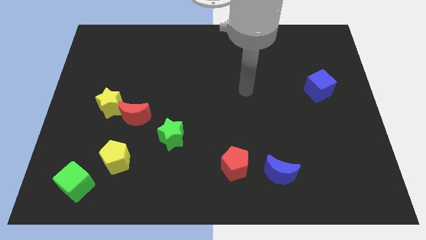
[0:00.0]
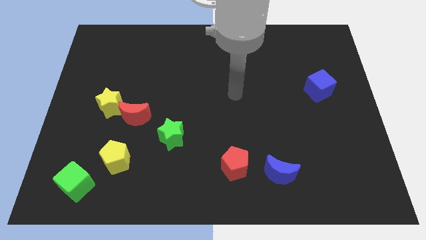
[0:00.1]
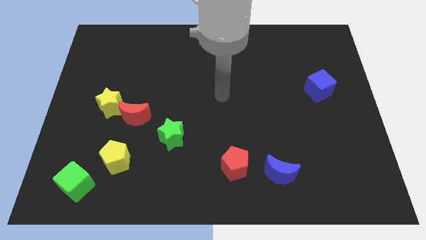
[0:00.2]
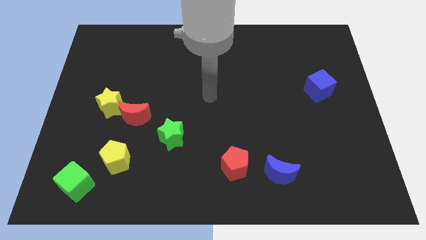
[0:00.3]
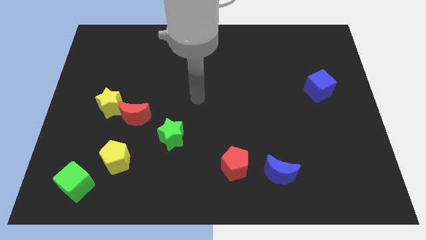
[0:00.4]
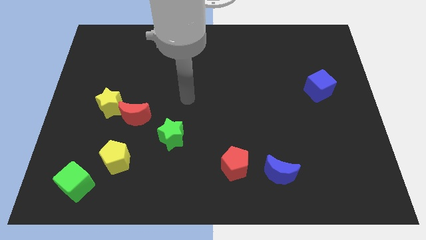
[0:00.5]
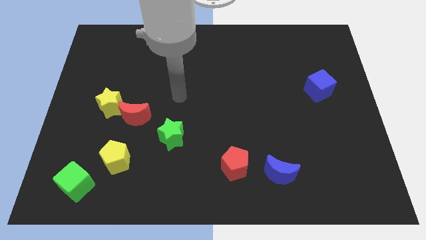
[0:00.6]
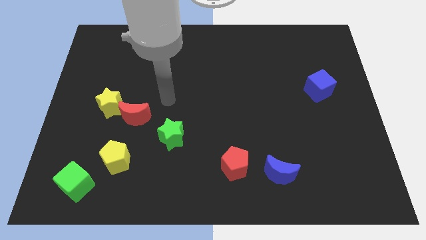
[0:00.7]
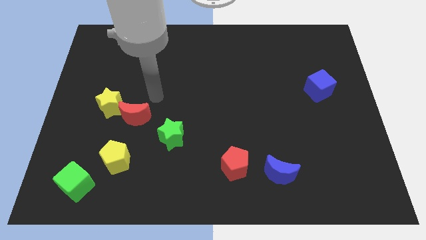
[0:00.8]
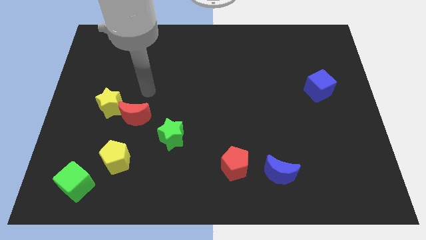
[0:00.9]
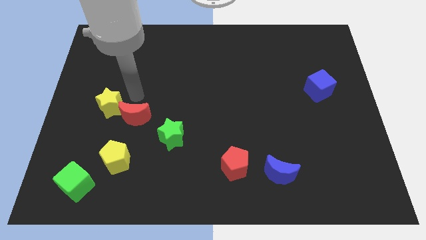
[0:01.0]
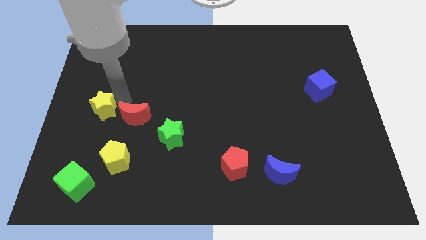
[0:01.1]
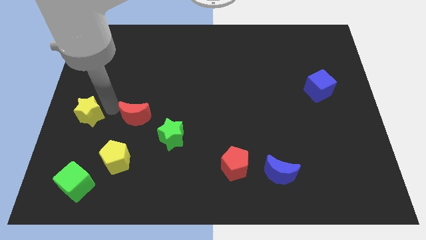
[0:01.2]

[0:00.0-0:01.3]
separate the red moon from the yellow star

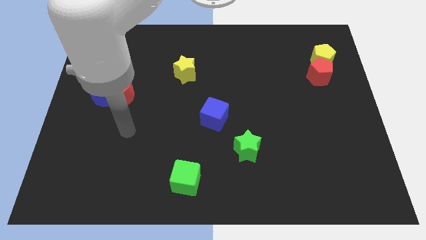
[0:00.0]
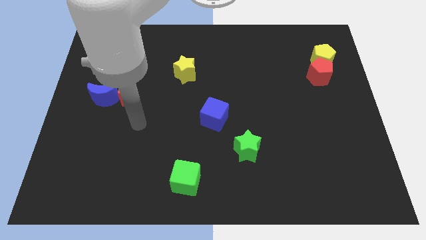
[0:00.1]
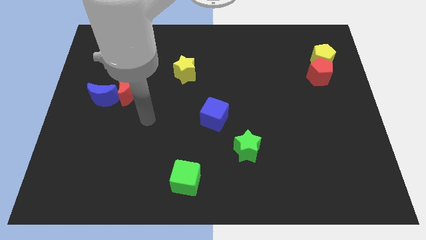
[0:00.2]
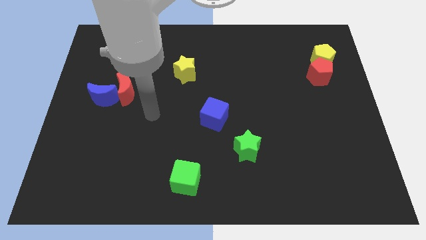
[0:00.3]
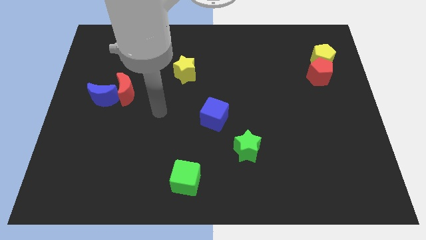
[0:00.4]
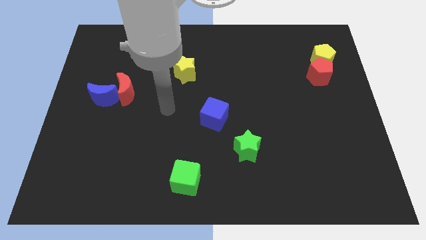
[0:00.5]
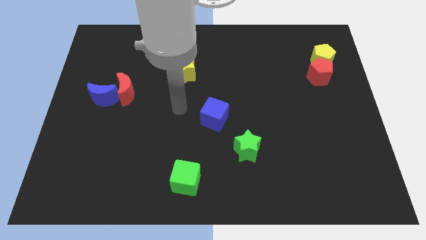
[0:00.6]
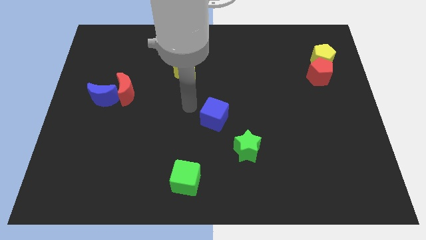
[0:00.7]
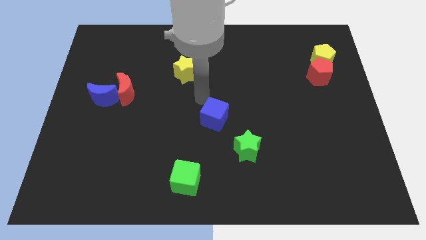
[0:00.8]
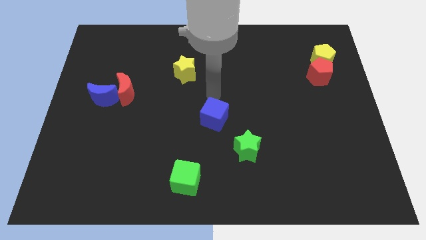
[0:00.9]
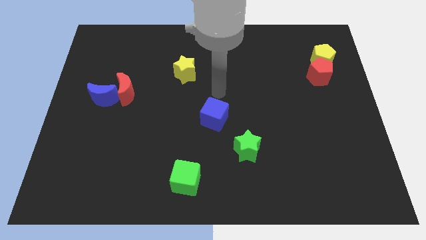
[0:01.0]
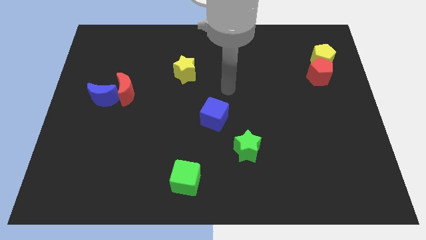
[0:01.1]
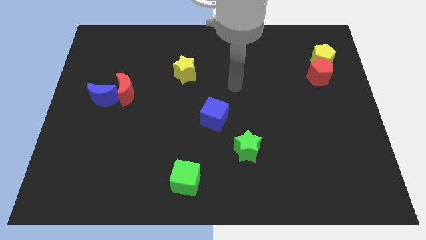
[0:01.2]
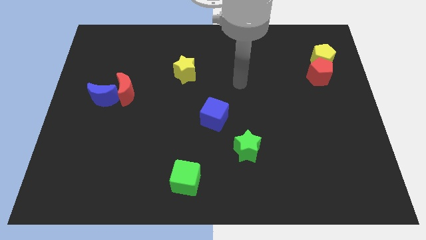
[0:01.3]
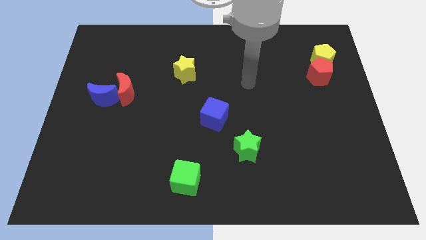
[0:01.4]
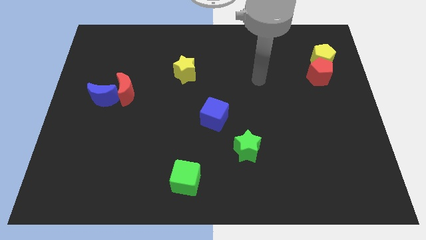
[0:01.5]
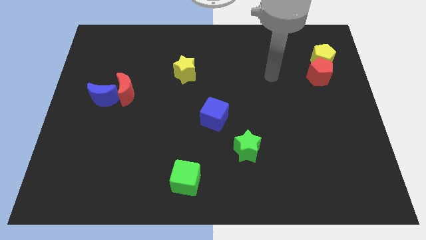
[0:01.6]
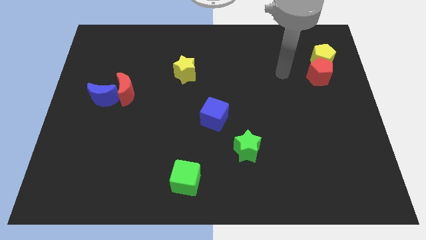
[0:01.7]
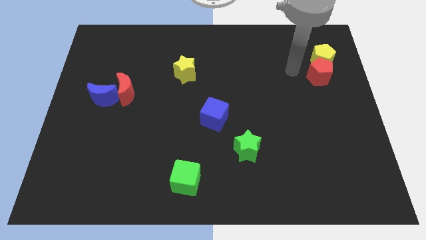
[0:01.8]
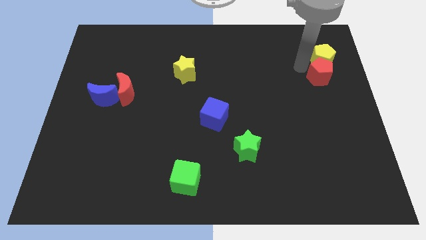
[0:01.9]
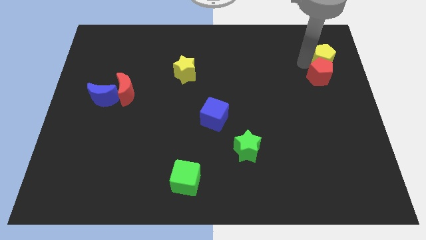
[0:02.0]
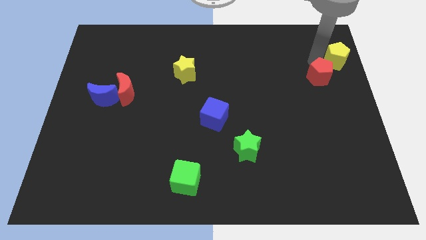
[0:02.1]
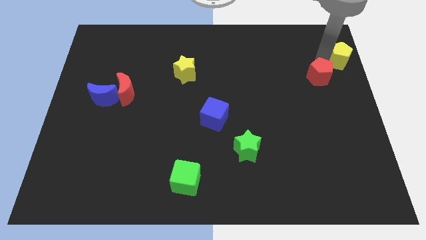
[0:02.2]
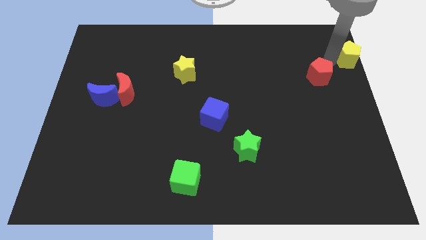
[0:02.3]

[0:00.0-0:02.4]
separate the red pentagon from the yellow pentagon

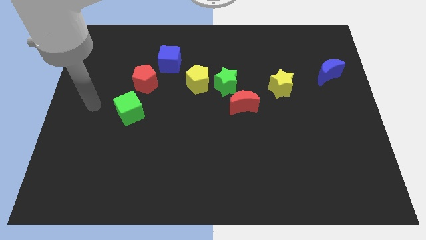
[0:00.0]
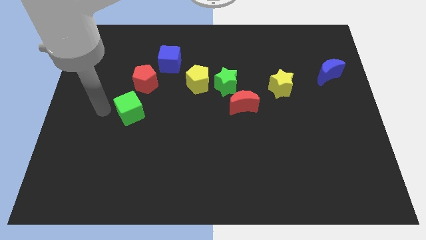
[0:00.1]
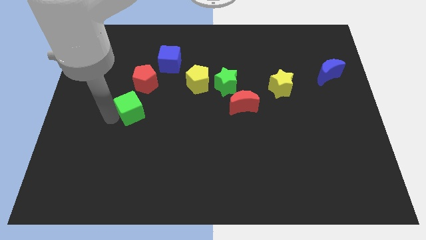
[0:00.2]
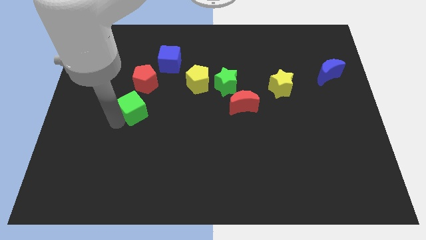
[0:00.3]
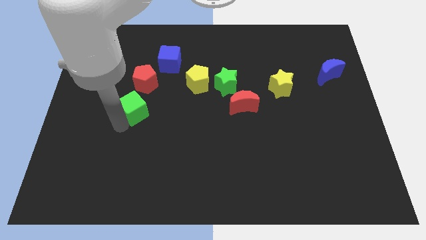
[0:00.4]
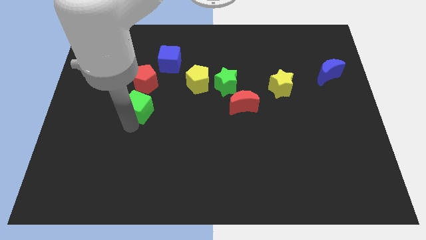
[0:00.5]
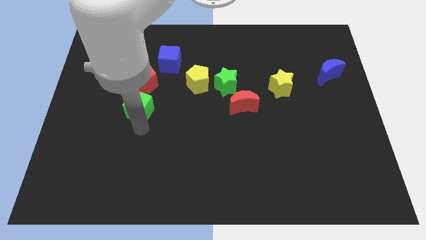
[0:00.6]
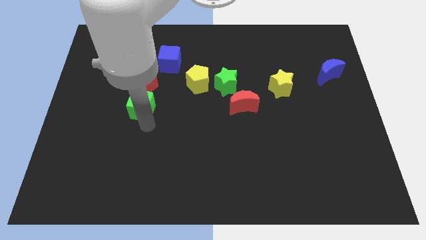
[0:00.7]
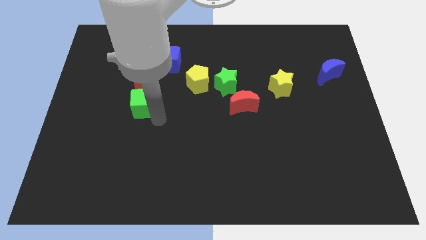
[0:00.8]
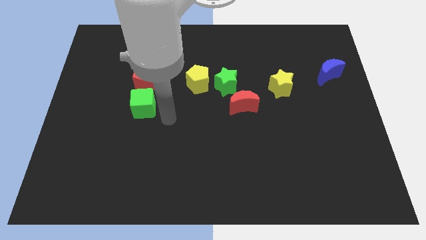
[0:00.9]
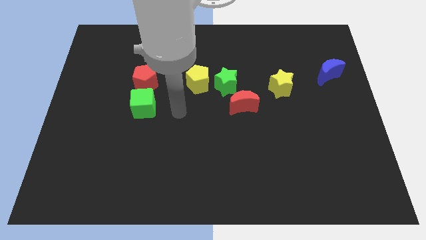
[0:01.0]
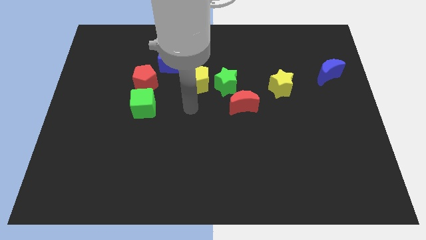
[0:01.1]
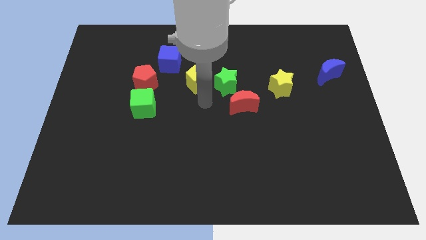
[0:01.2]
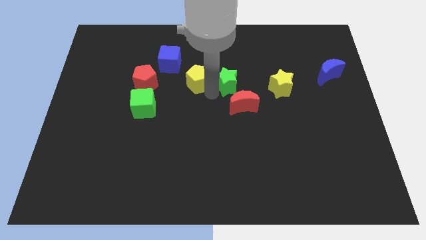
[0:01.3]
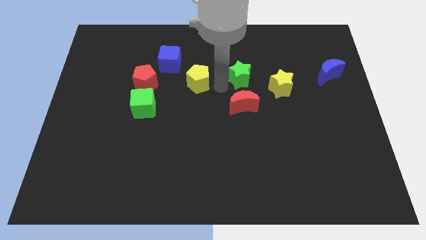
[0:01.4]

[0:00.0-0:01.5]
pull the yellow pentagon apart from the green star

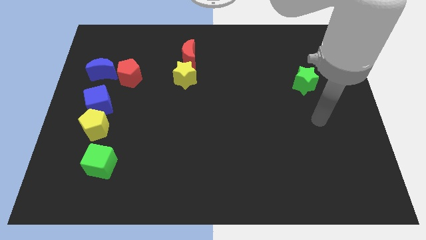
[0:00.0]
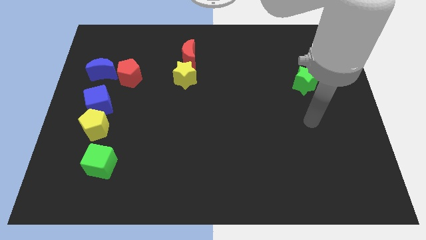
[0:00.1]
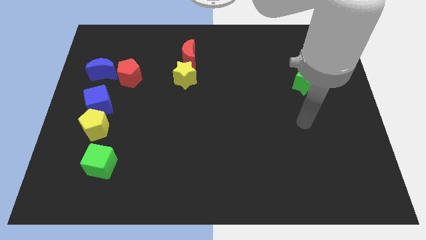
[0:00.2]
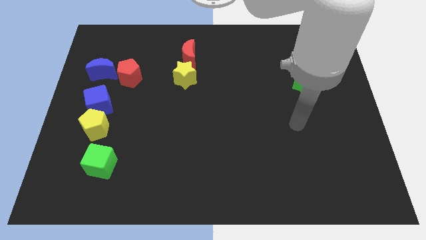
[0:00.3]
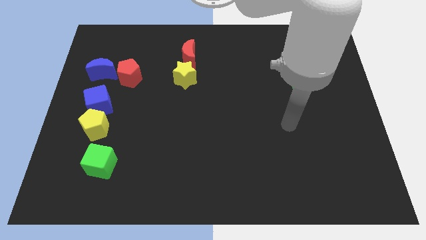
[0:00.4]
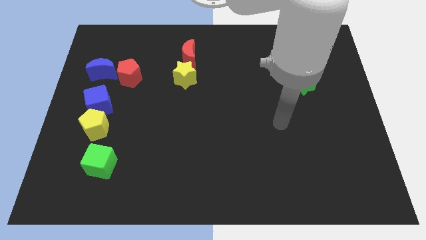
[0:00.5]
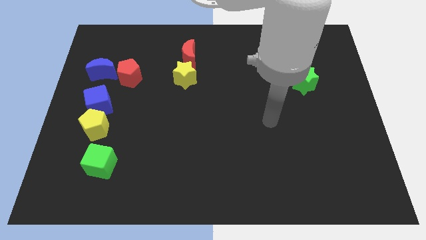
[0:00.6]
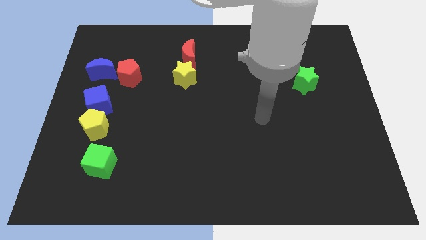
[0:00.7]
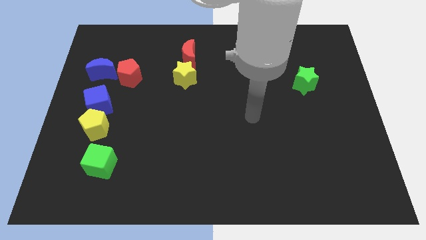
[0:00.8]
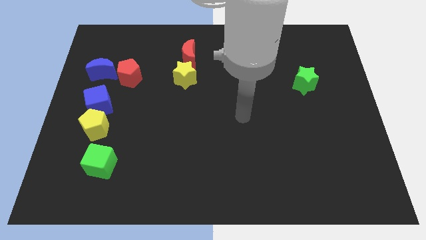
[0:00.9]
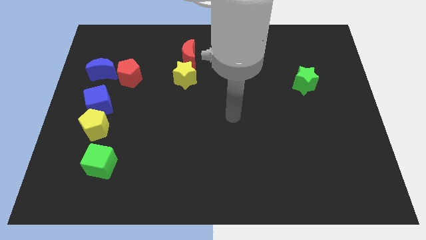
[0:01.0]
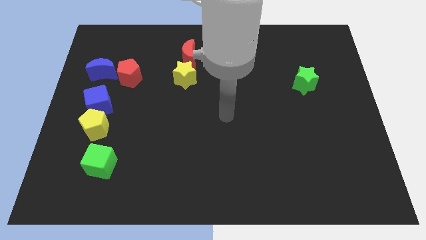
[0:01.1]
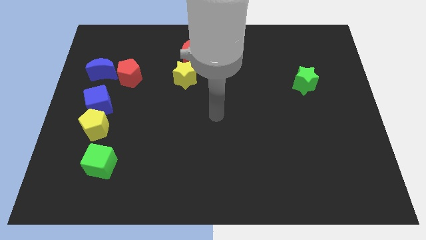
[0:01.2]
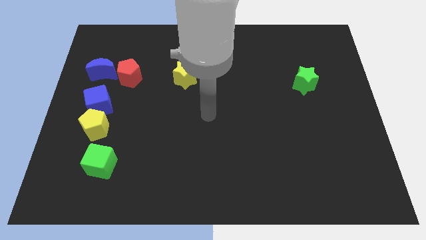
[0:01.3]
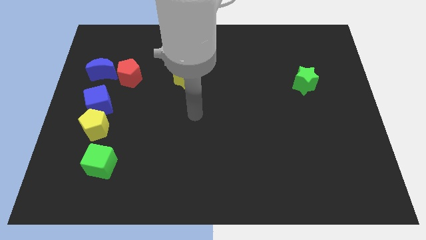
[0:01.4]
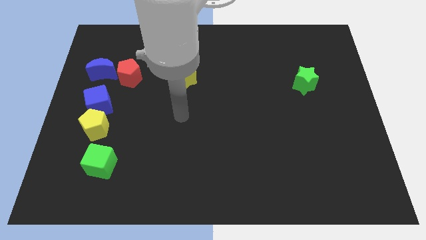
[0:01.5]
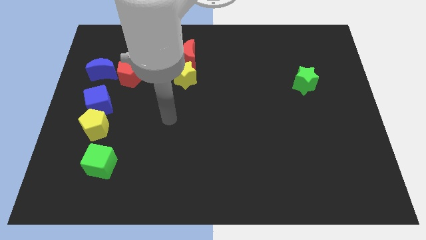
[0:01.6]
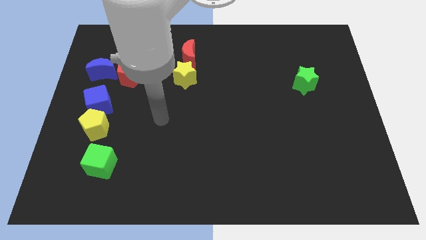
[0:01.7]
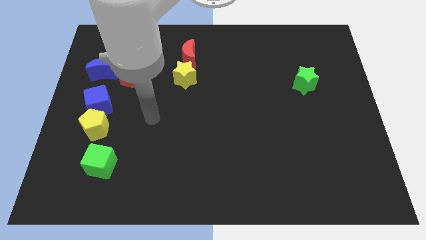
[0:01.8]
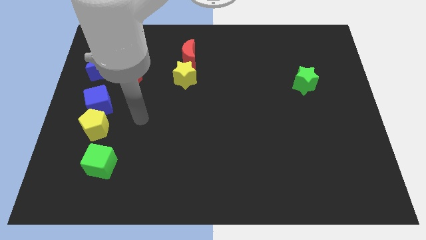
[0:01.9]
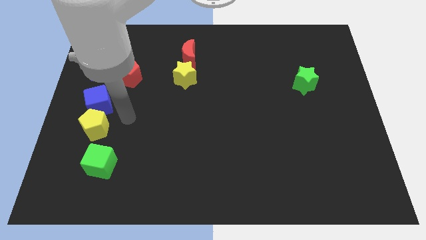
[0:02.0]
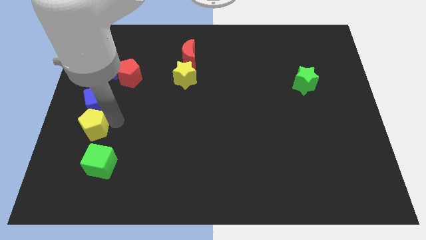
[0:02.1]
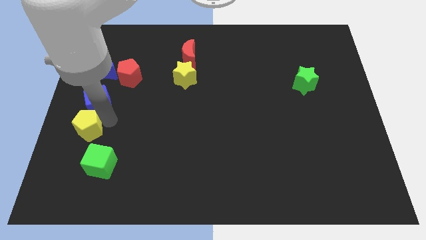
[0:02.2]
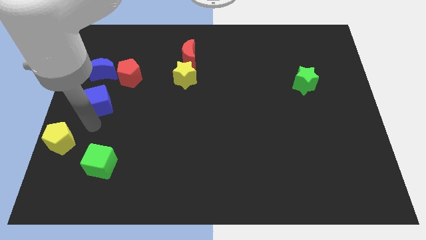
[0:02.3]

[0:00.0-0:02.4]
pull the blue cube apart from the yellow pentagon

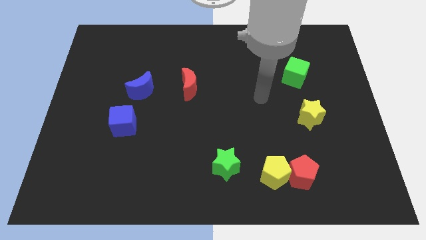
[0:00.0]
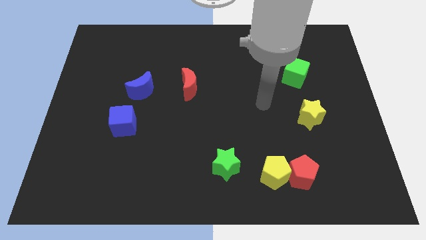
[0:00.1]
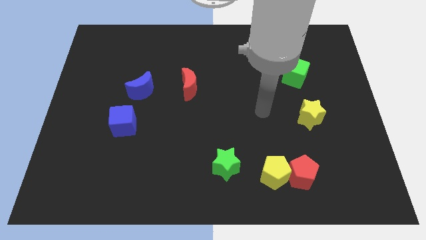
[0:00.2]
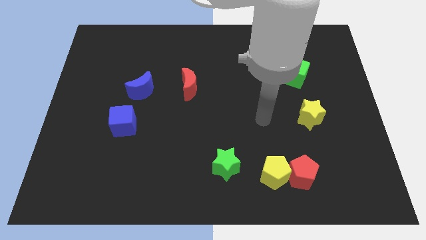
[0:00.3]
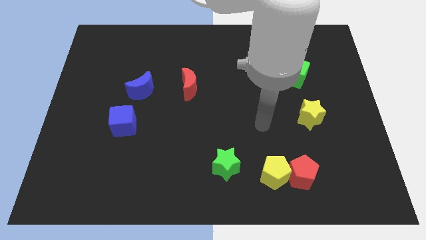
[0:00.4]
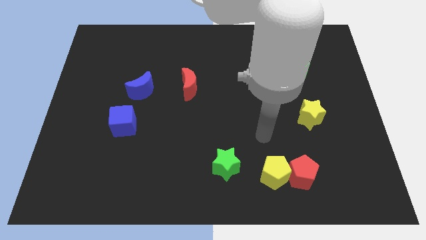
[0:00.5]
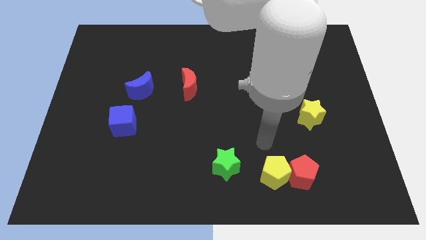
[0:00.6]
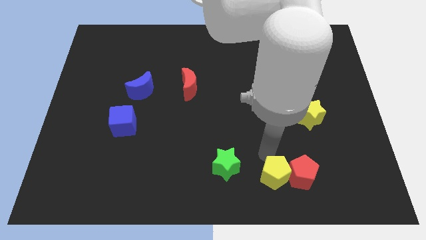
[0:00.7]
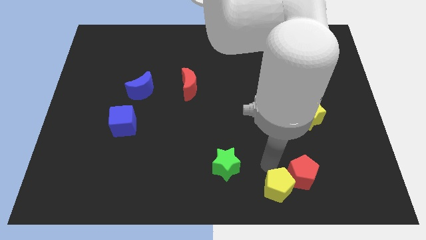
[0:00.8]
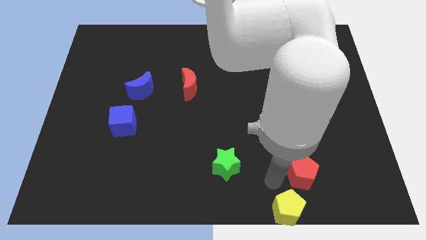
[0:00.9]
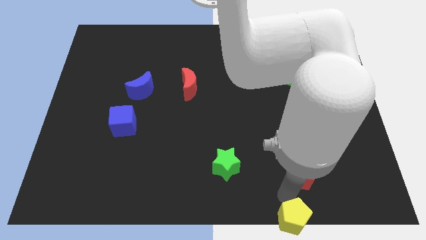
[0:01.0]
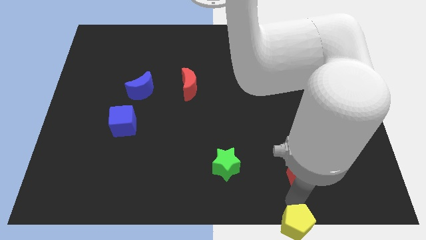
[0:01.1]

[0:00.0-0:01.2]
move the red pentagon away from the yellow pentagon

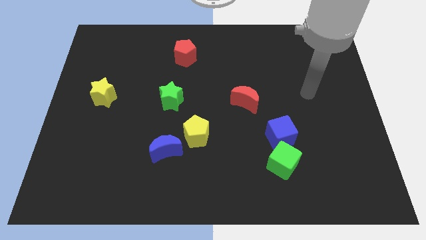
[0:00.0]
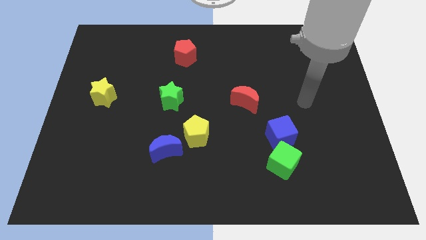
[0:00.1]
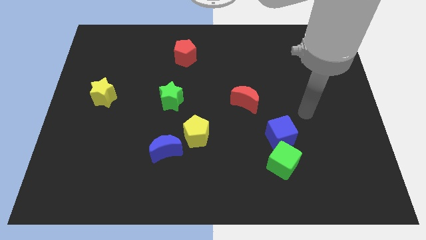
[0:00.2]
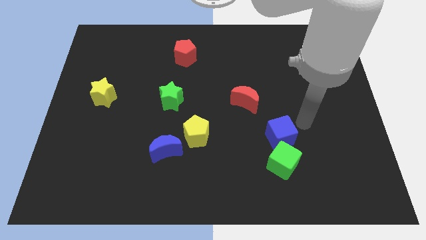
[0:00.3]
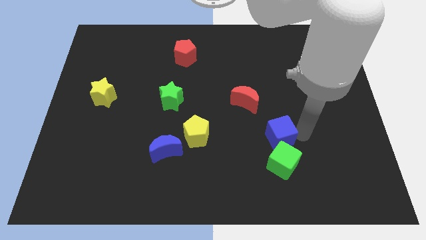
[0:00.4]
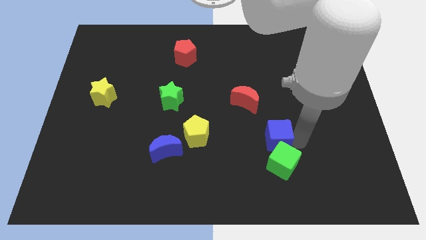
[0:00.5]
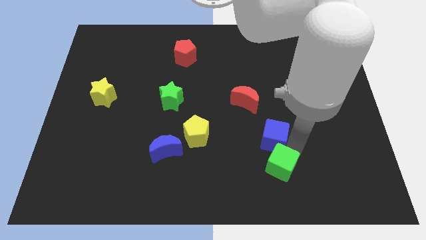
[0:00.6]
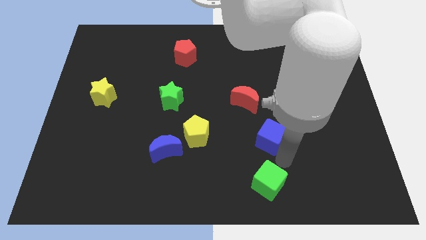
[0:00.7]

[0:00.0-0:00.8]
pull the blue cube apart from the green cube
